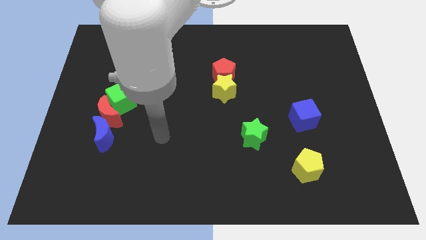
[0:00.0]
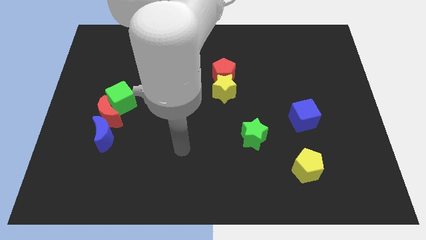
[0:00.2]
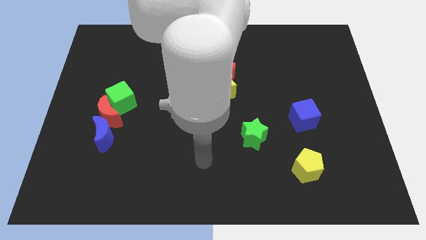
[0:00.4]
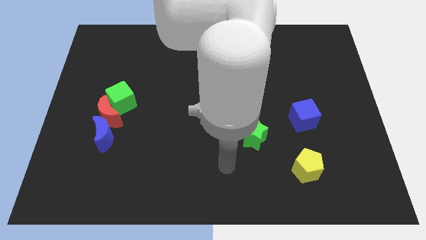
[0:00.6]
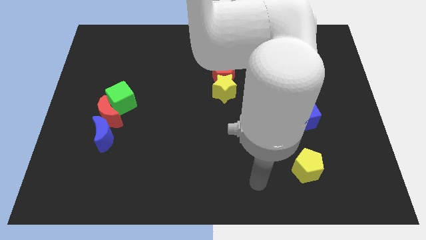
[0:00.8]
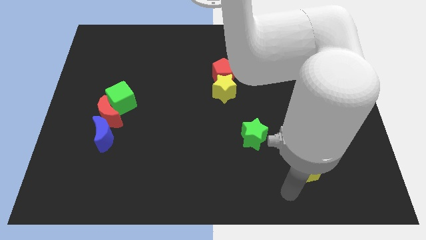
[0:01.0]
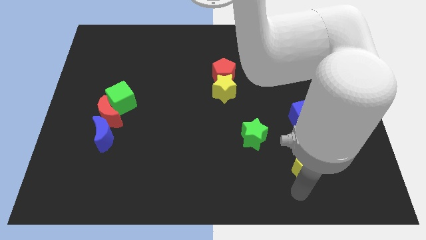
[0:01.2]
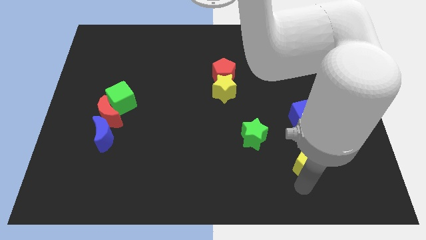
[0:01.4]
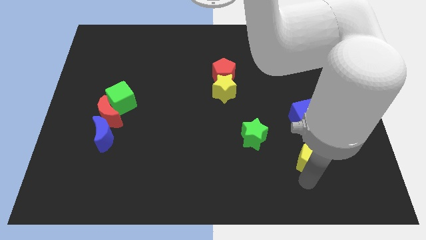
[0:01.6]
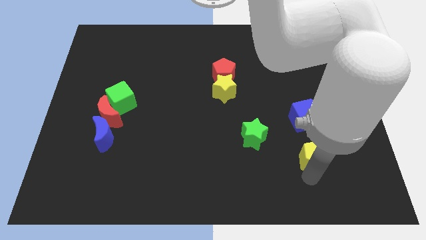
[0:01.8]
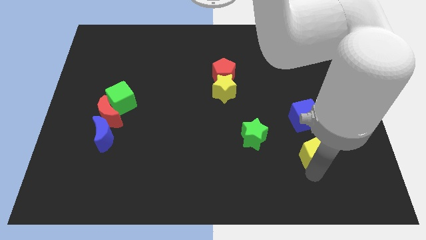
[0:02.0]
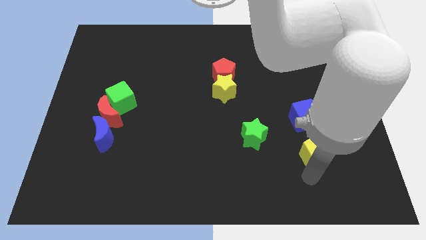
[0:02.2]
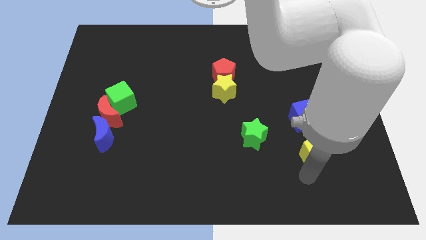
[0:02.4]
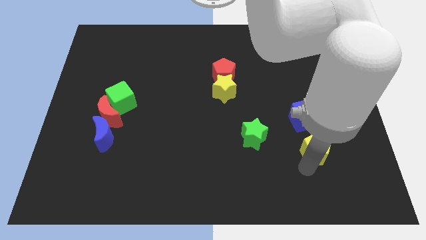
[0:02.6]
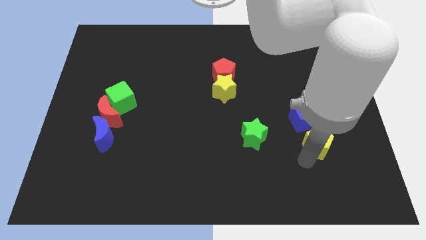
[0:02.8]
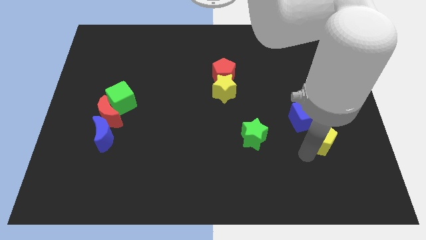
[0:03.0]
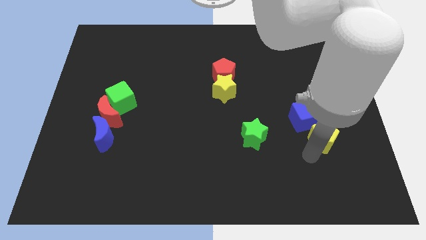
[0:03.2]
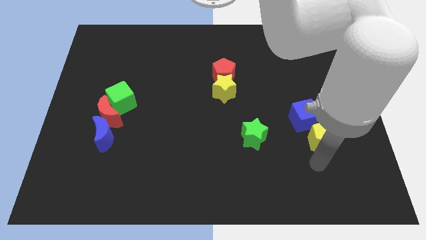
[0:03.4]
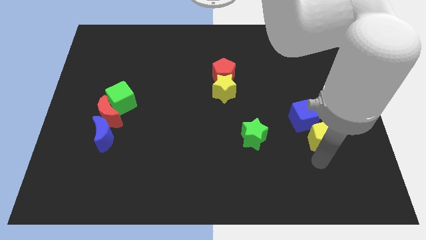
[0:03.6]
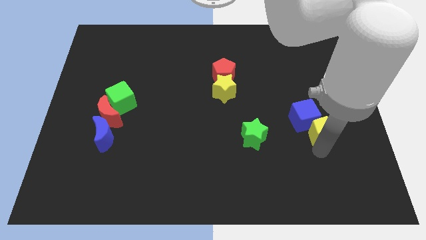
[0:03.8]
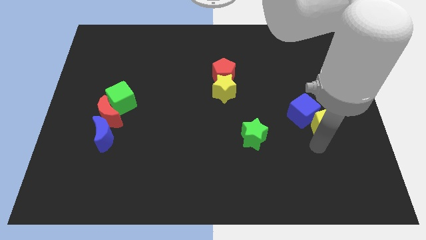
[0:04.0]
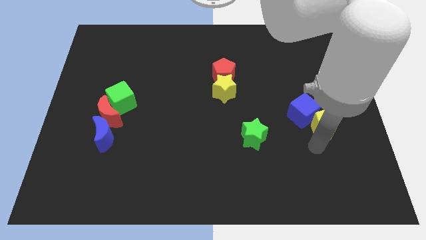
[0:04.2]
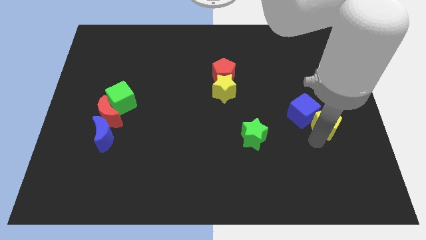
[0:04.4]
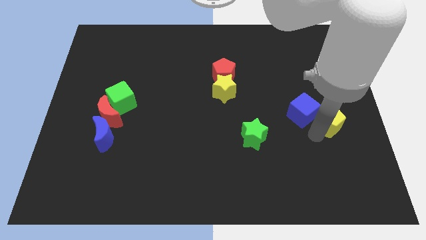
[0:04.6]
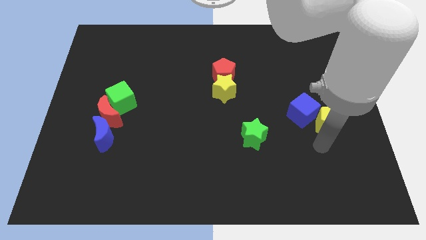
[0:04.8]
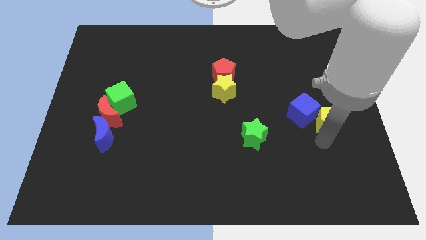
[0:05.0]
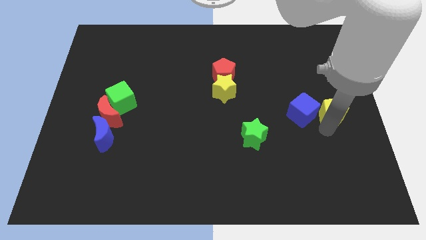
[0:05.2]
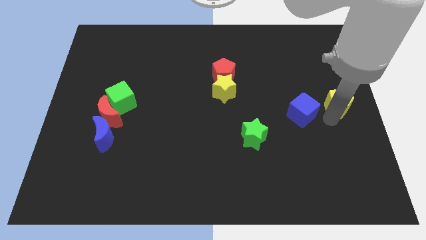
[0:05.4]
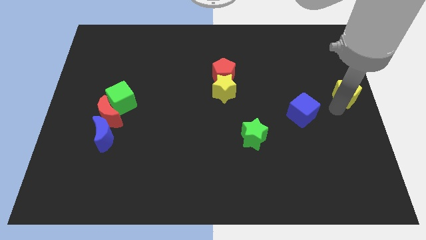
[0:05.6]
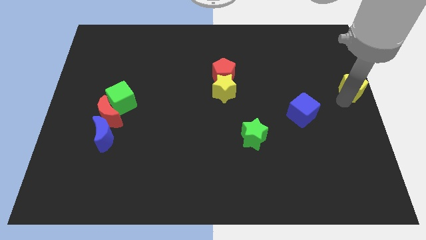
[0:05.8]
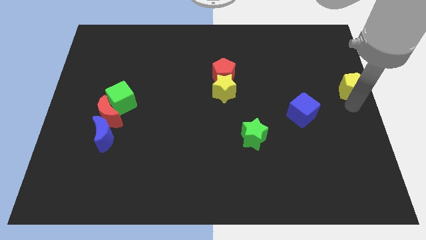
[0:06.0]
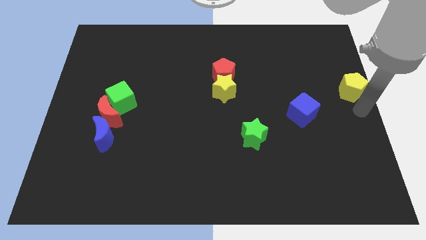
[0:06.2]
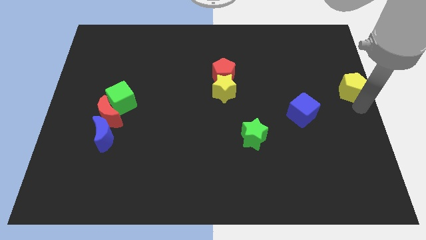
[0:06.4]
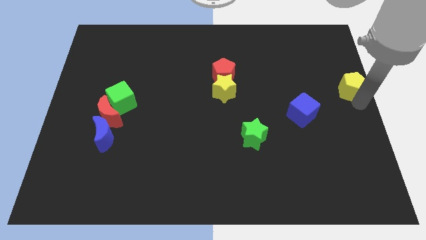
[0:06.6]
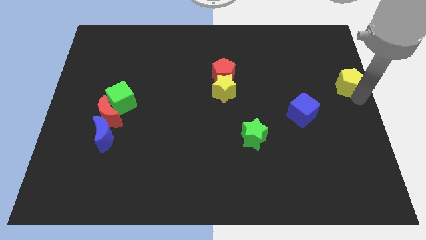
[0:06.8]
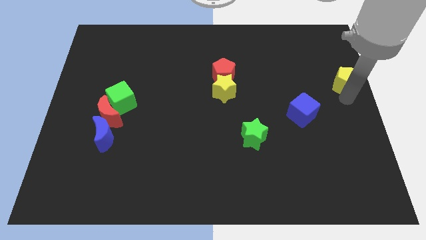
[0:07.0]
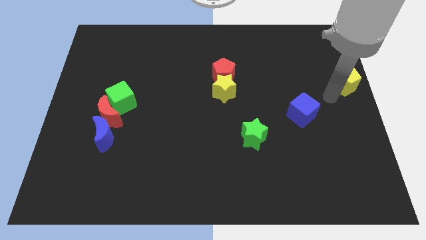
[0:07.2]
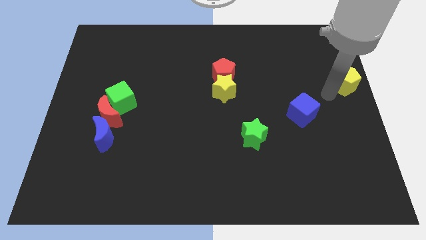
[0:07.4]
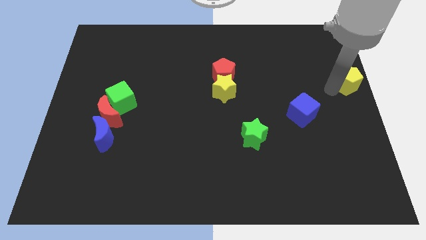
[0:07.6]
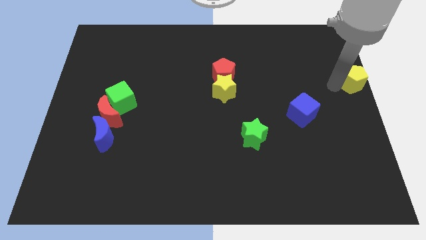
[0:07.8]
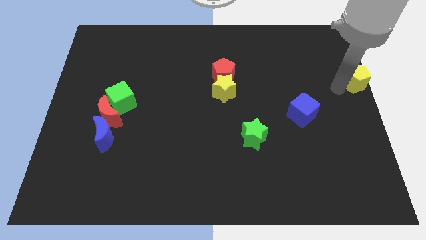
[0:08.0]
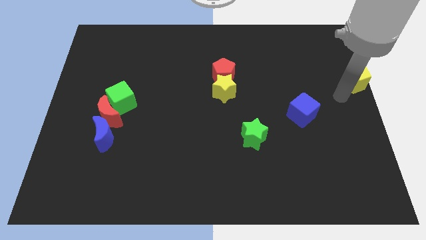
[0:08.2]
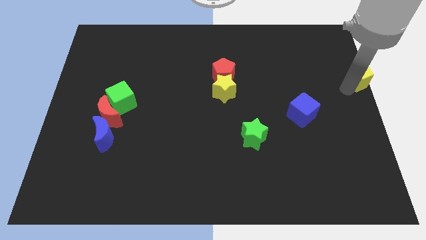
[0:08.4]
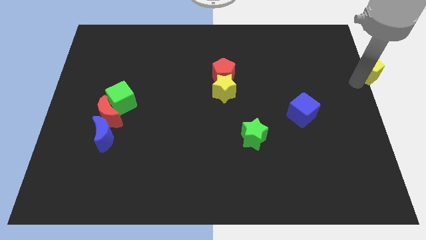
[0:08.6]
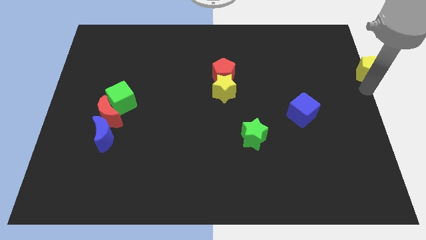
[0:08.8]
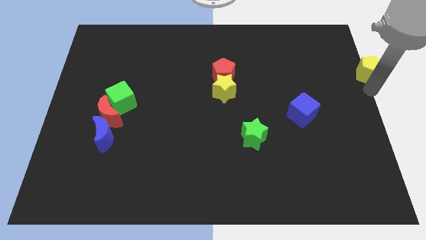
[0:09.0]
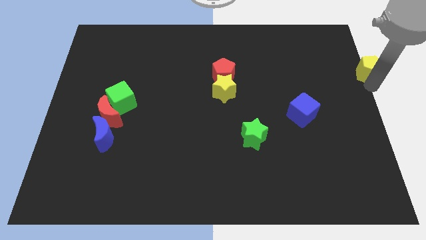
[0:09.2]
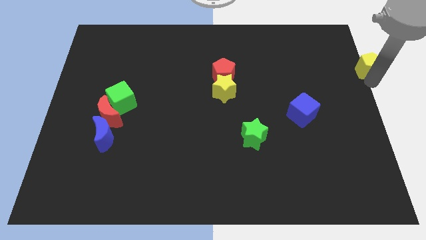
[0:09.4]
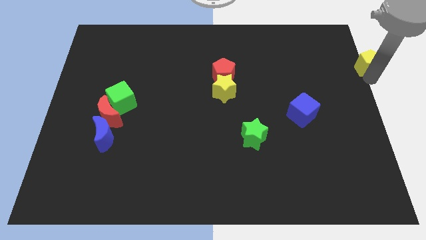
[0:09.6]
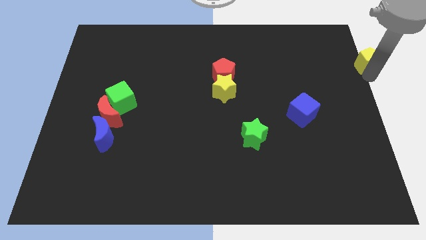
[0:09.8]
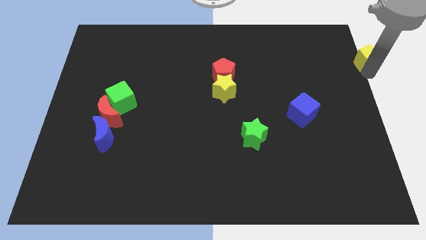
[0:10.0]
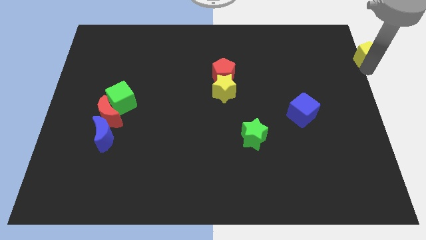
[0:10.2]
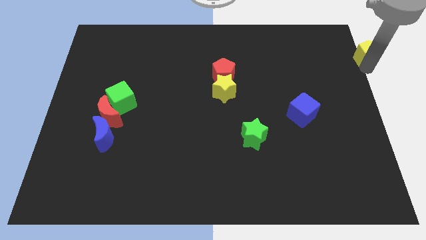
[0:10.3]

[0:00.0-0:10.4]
slide the yellow pentagon to the top right

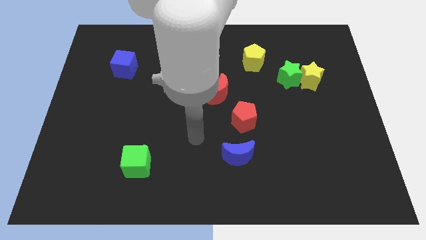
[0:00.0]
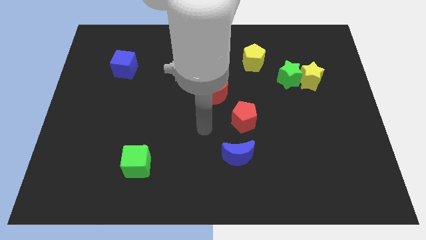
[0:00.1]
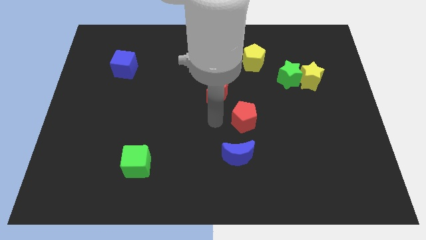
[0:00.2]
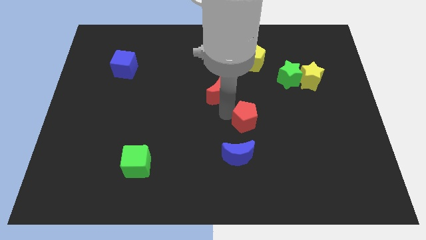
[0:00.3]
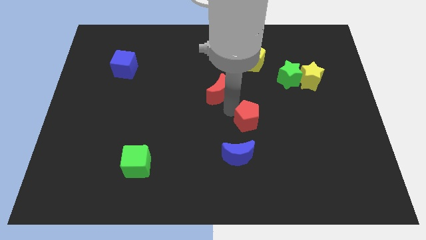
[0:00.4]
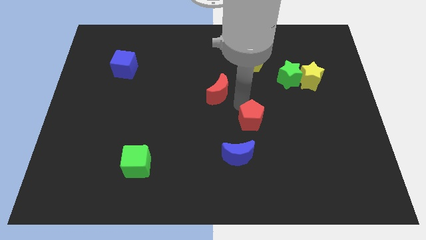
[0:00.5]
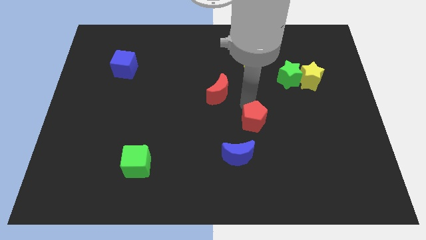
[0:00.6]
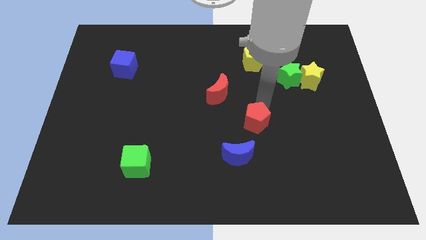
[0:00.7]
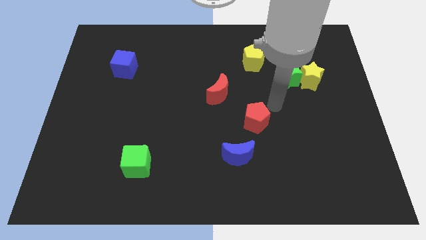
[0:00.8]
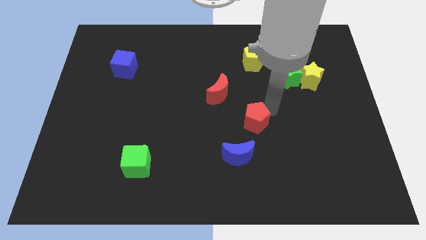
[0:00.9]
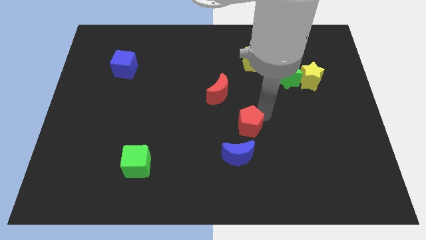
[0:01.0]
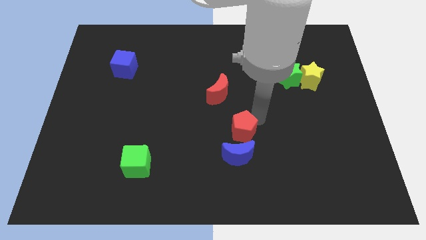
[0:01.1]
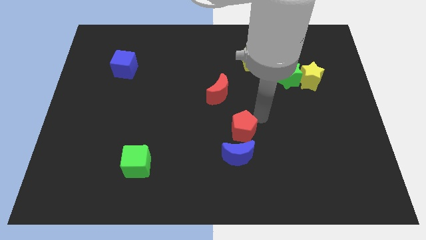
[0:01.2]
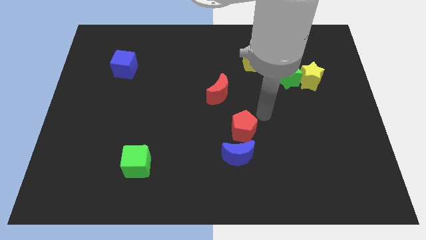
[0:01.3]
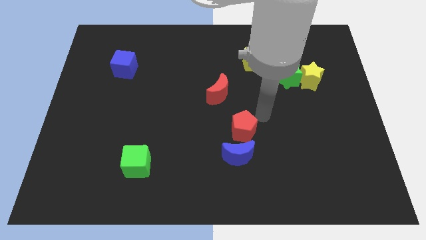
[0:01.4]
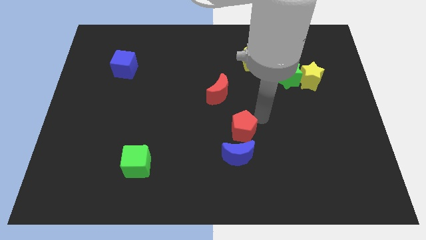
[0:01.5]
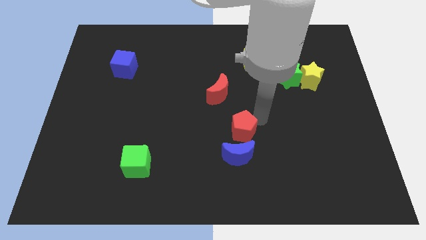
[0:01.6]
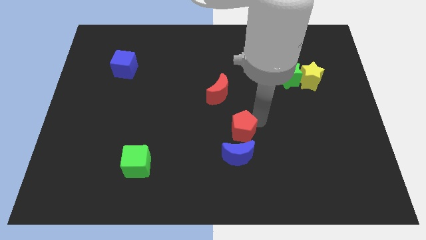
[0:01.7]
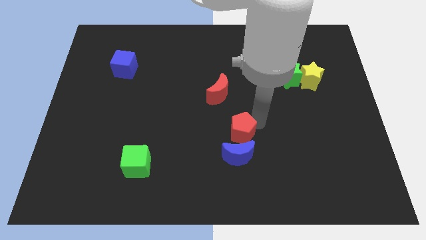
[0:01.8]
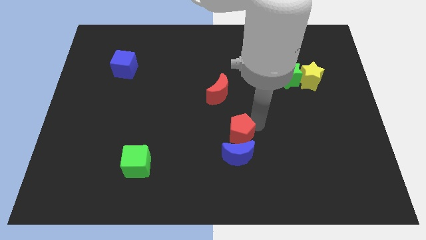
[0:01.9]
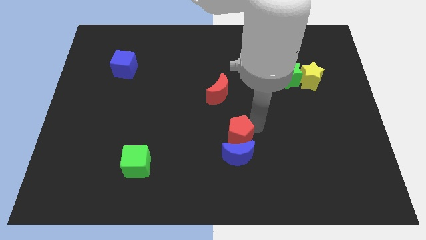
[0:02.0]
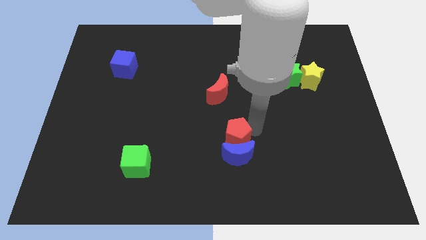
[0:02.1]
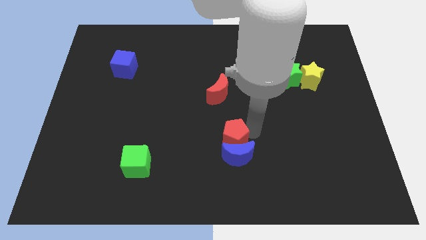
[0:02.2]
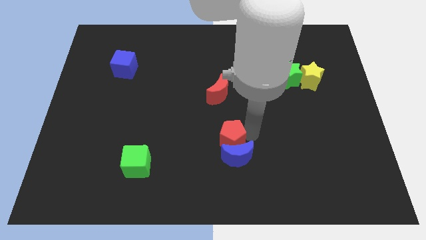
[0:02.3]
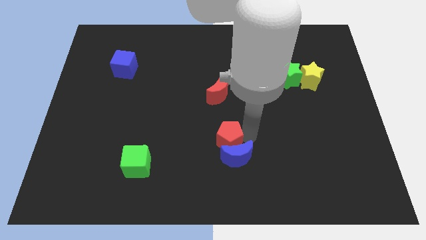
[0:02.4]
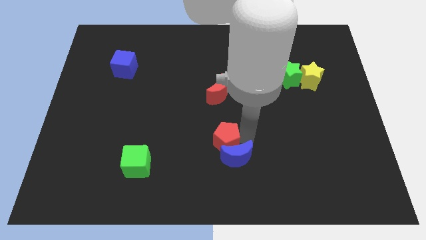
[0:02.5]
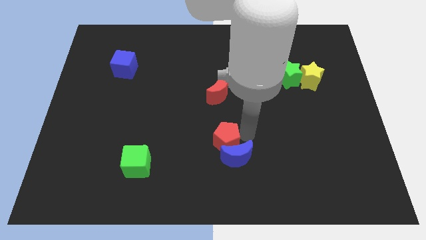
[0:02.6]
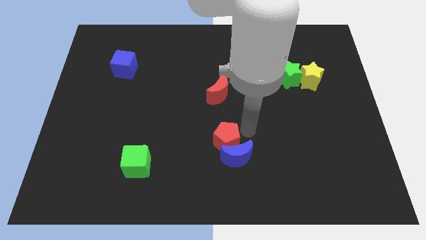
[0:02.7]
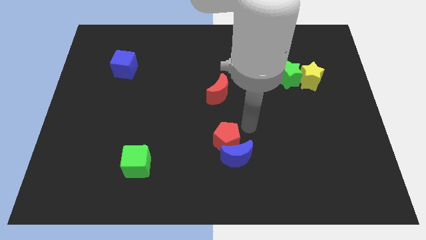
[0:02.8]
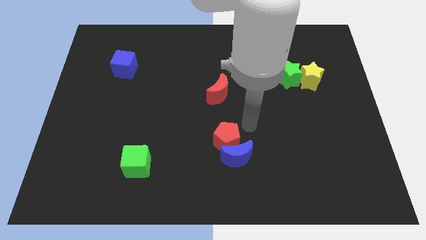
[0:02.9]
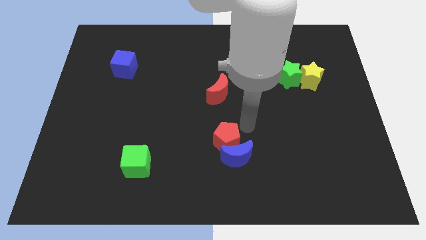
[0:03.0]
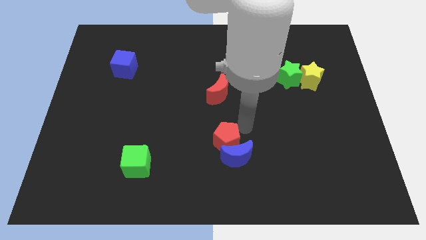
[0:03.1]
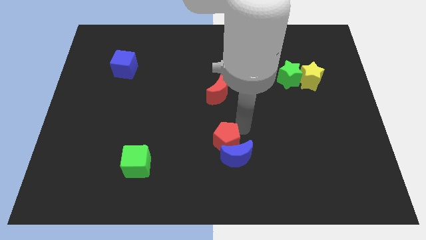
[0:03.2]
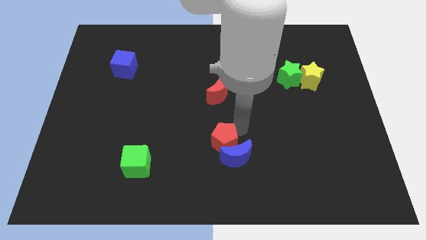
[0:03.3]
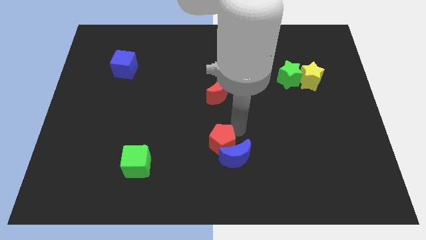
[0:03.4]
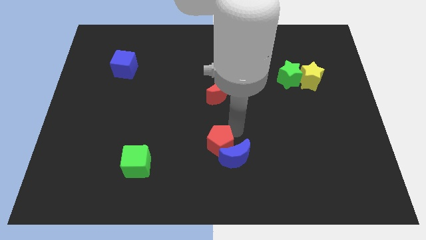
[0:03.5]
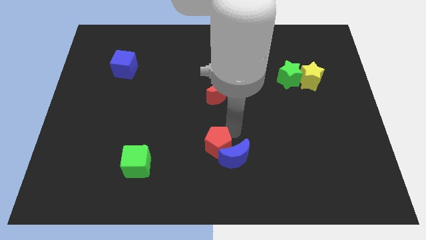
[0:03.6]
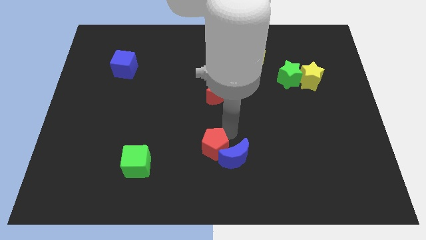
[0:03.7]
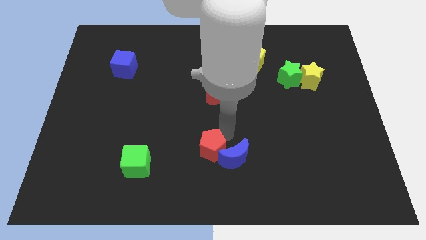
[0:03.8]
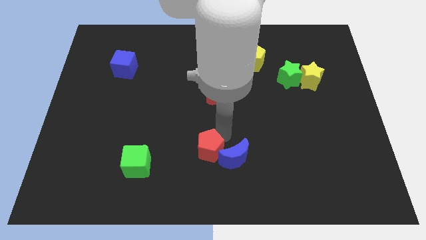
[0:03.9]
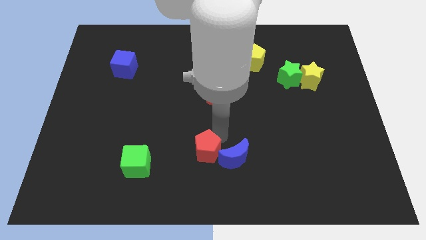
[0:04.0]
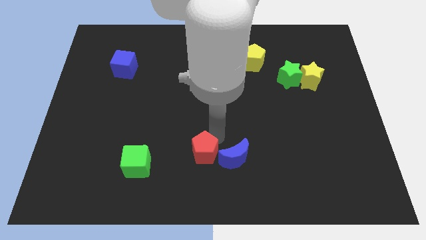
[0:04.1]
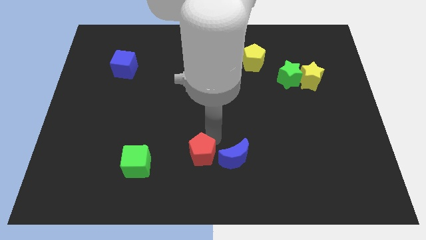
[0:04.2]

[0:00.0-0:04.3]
push the red pentagon to the bottom side
